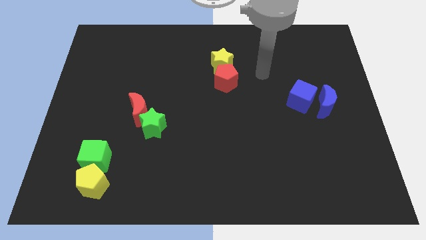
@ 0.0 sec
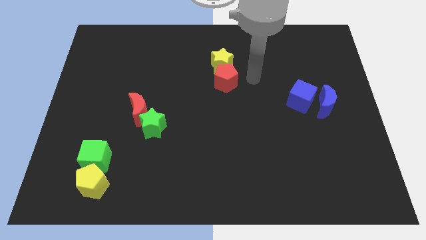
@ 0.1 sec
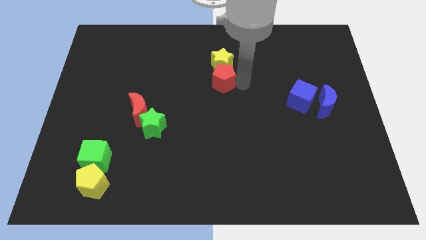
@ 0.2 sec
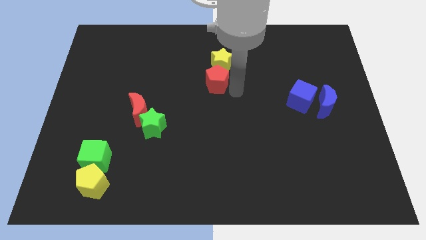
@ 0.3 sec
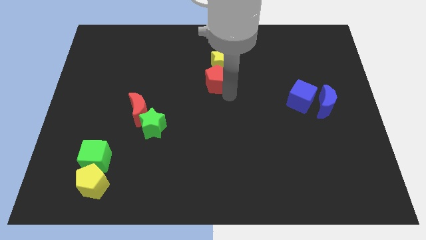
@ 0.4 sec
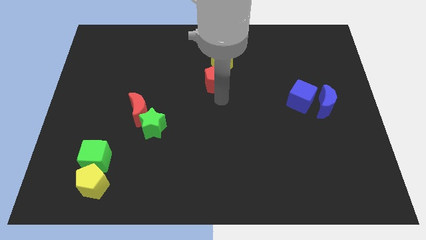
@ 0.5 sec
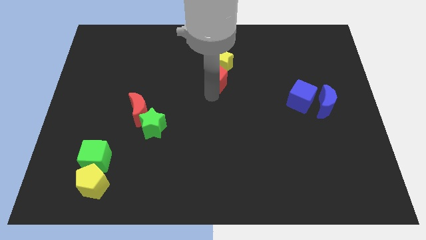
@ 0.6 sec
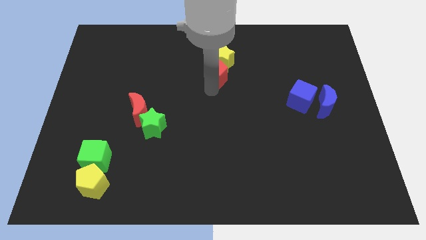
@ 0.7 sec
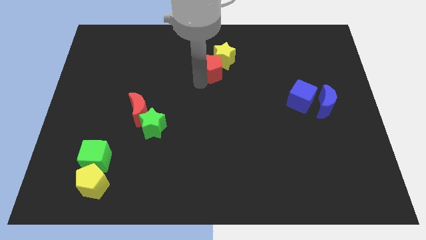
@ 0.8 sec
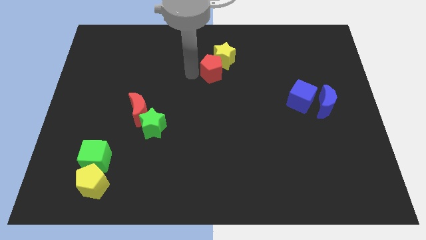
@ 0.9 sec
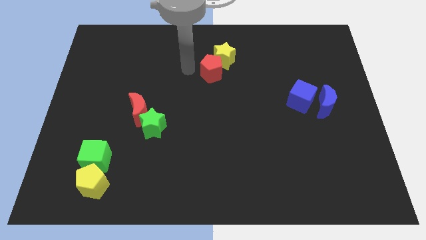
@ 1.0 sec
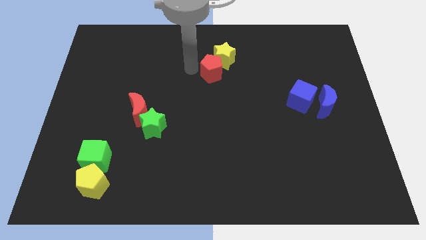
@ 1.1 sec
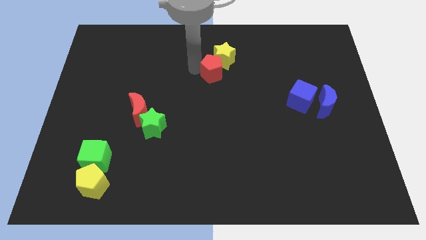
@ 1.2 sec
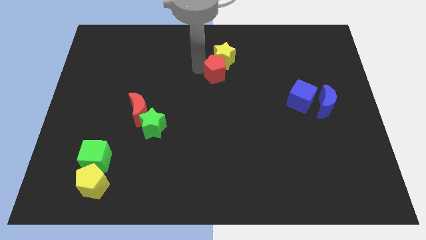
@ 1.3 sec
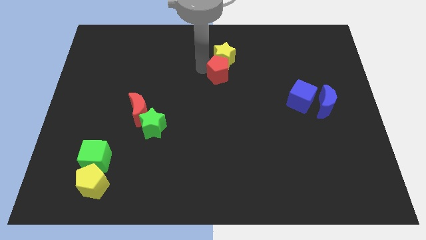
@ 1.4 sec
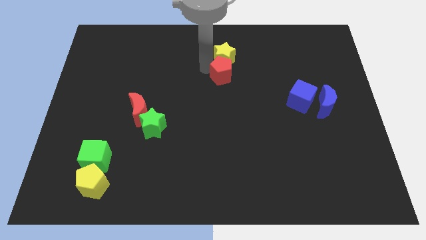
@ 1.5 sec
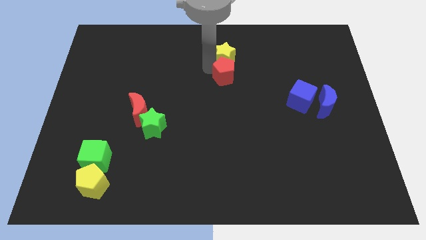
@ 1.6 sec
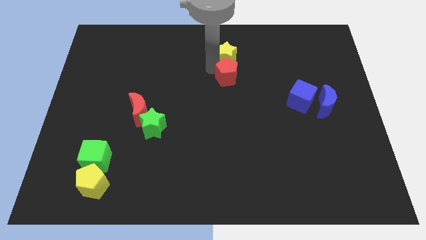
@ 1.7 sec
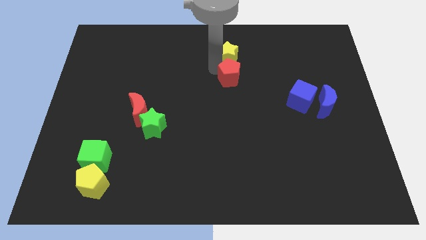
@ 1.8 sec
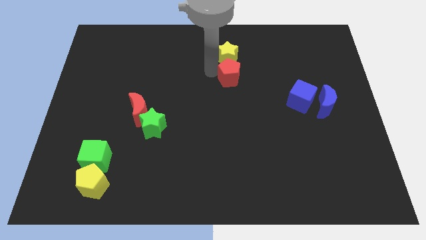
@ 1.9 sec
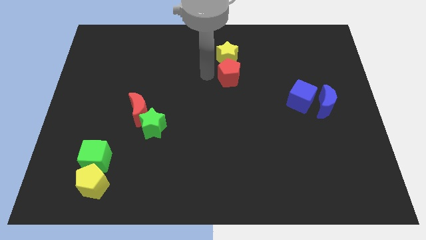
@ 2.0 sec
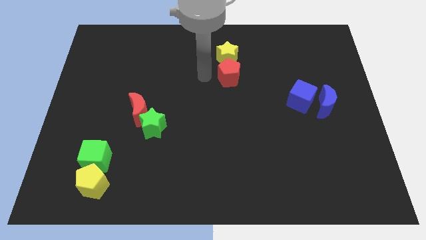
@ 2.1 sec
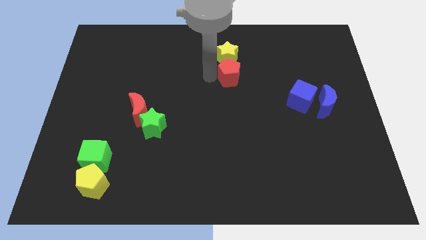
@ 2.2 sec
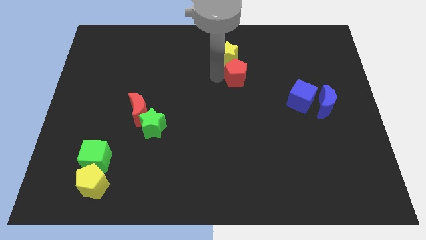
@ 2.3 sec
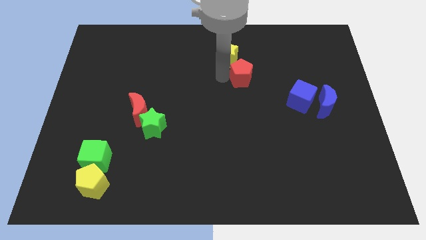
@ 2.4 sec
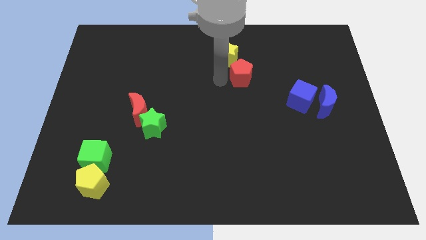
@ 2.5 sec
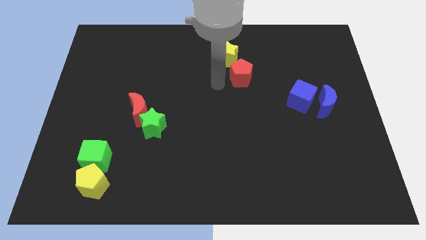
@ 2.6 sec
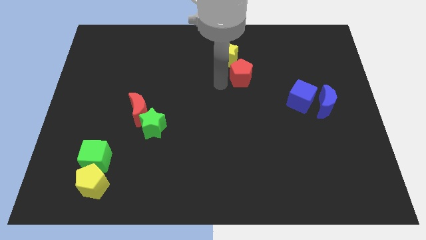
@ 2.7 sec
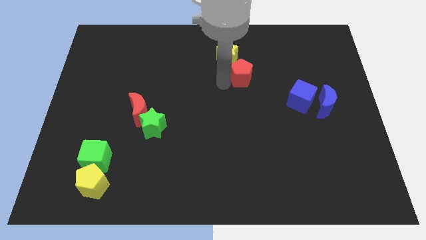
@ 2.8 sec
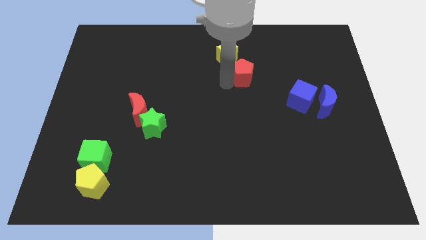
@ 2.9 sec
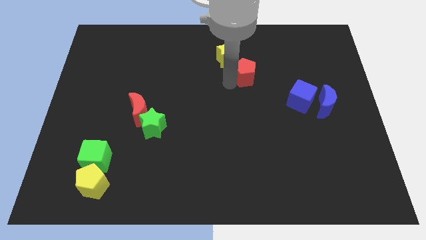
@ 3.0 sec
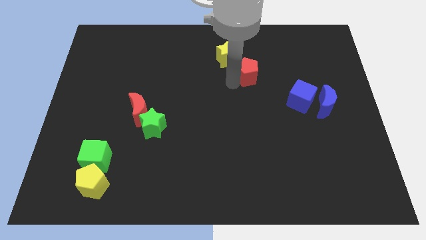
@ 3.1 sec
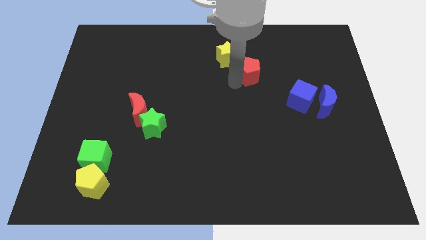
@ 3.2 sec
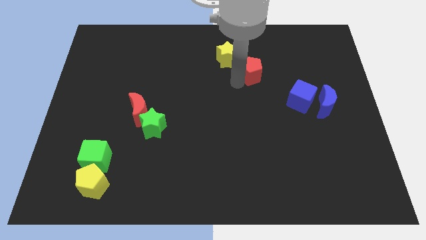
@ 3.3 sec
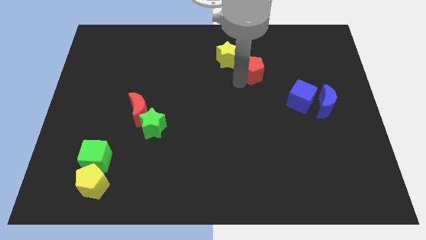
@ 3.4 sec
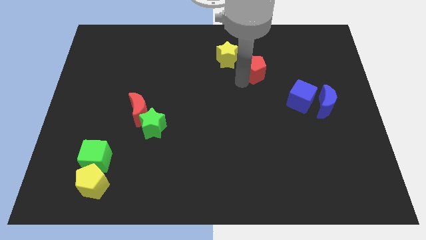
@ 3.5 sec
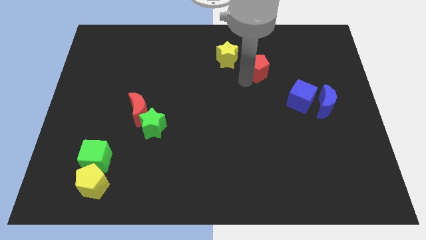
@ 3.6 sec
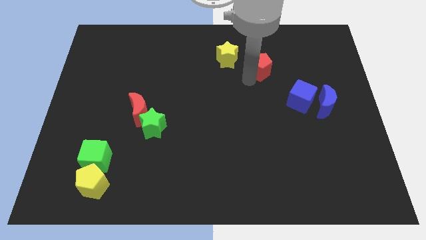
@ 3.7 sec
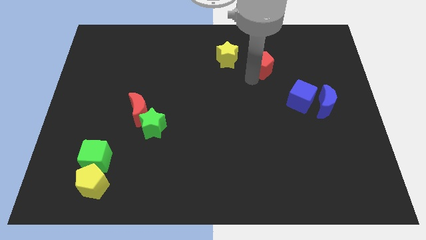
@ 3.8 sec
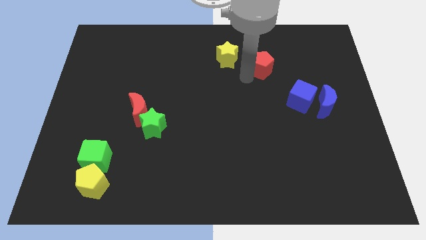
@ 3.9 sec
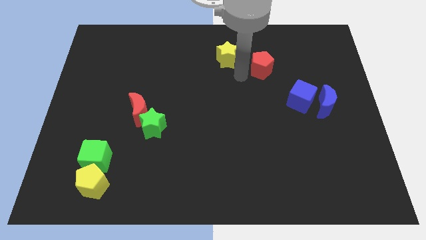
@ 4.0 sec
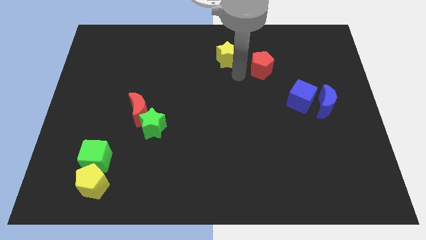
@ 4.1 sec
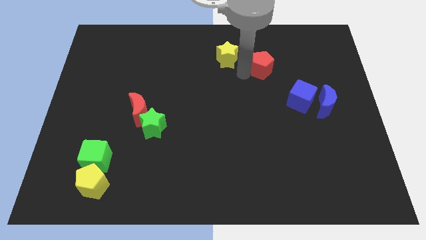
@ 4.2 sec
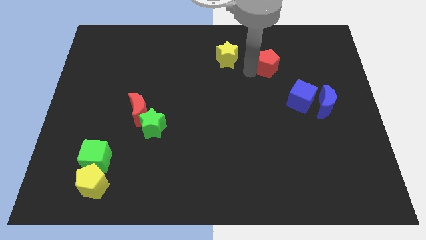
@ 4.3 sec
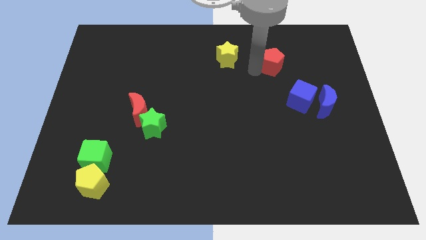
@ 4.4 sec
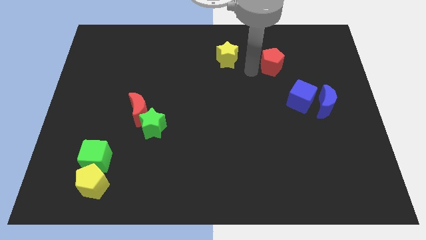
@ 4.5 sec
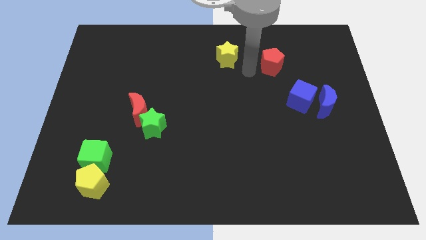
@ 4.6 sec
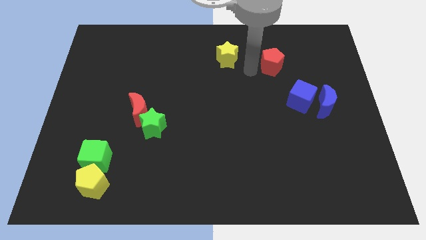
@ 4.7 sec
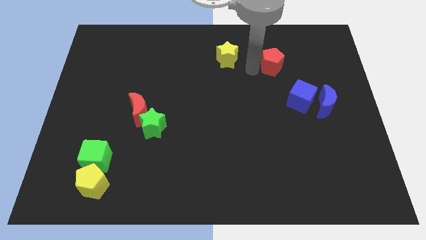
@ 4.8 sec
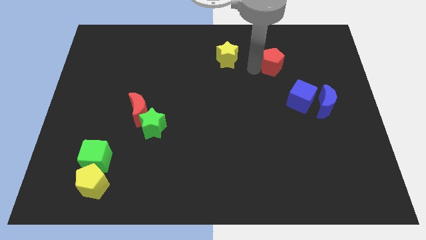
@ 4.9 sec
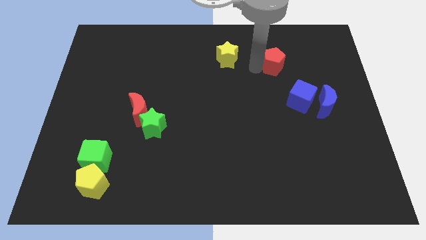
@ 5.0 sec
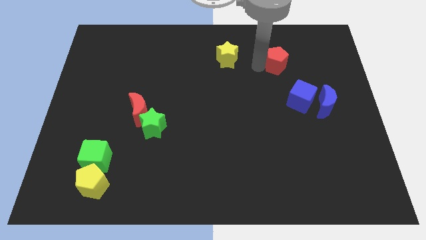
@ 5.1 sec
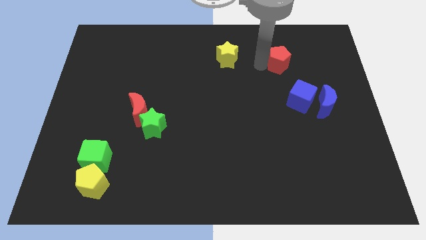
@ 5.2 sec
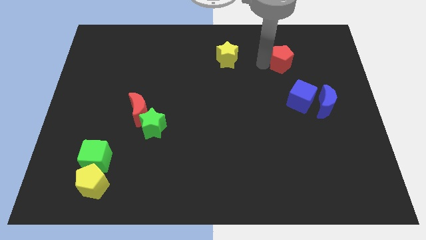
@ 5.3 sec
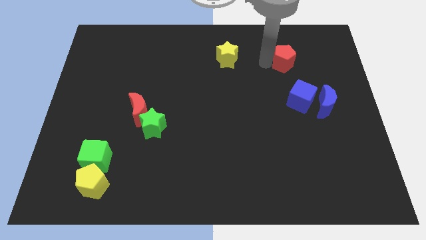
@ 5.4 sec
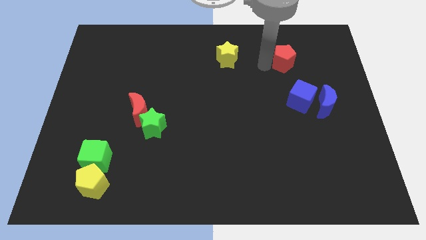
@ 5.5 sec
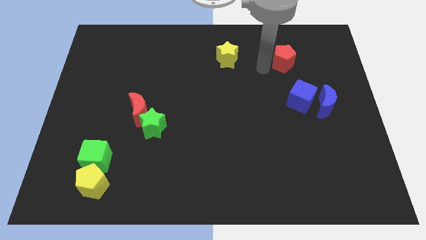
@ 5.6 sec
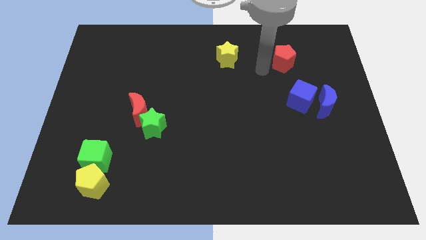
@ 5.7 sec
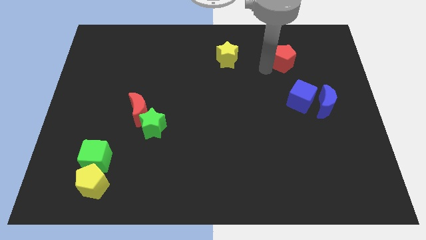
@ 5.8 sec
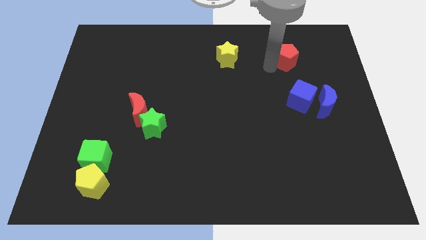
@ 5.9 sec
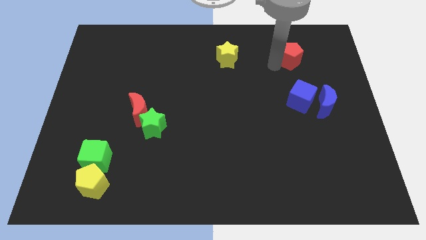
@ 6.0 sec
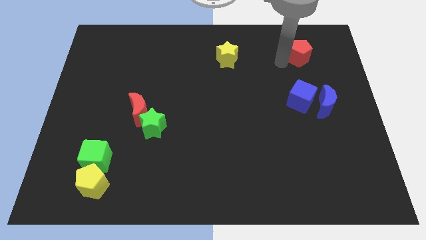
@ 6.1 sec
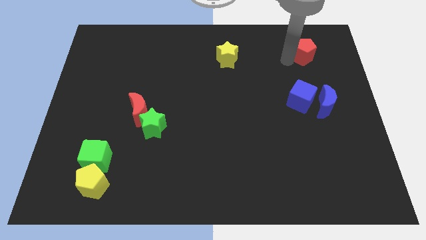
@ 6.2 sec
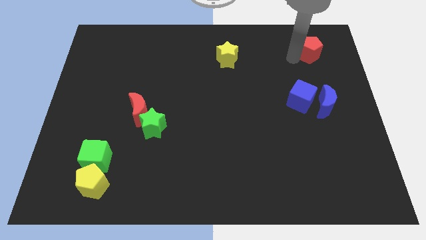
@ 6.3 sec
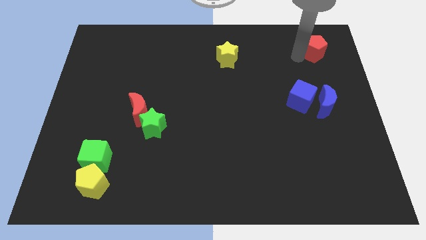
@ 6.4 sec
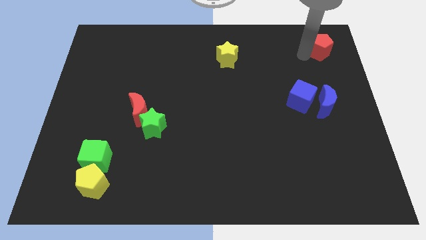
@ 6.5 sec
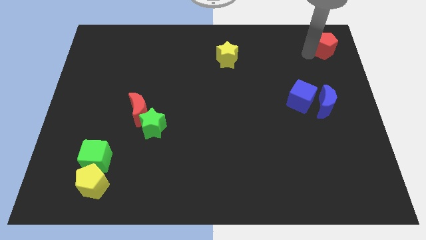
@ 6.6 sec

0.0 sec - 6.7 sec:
push the red pentagon to the top right of the board
